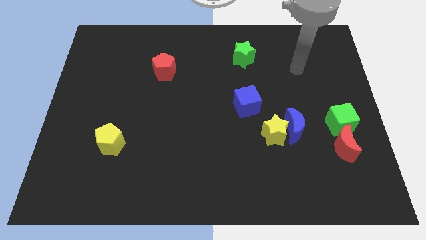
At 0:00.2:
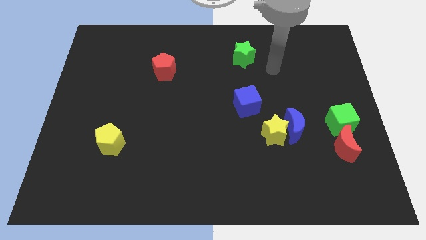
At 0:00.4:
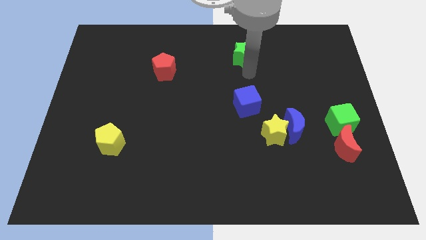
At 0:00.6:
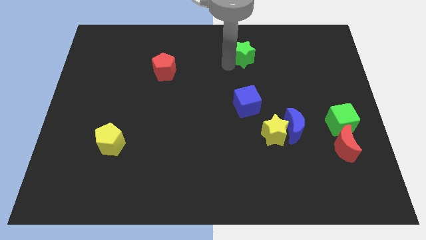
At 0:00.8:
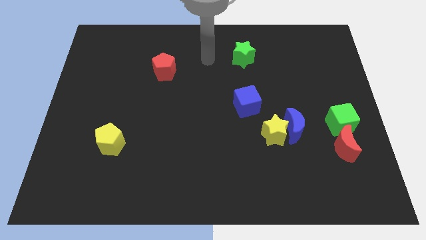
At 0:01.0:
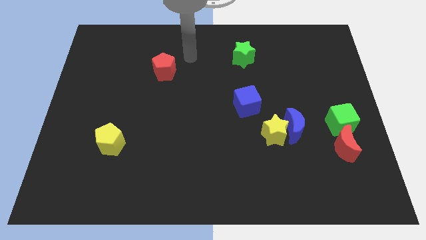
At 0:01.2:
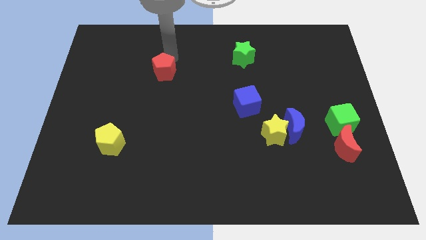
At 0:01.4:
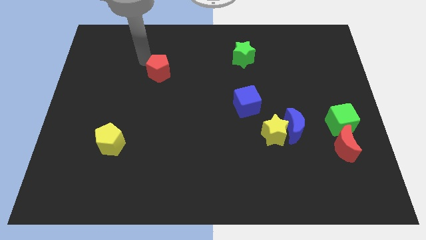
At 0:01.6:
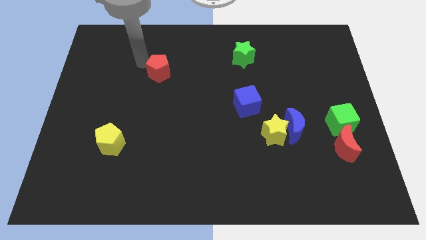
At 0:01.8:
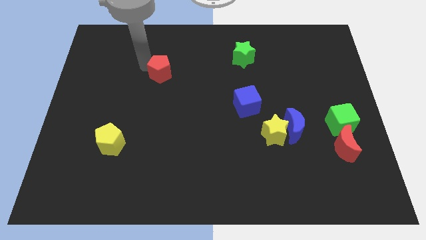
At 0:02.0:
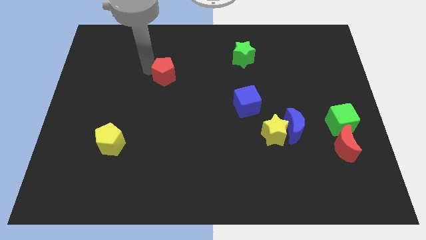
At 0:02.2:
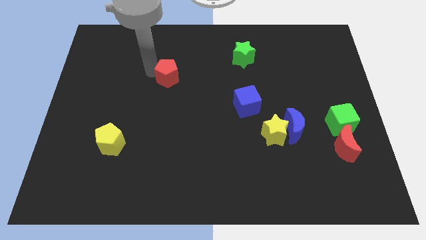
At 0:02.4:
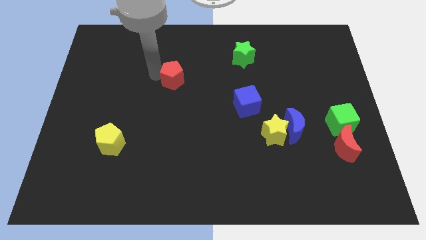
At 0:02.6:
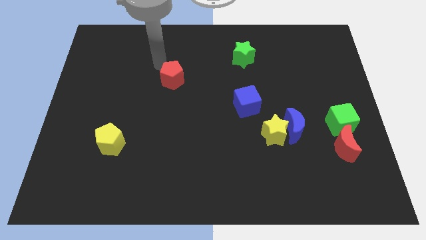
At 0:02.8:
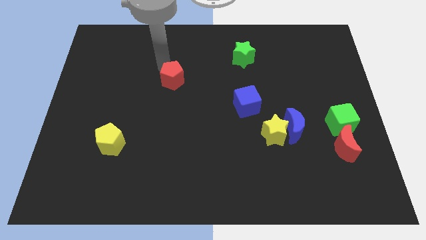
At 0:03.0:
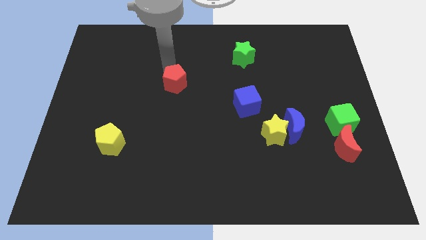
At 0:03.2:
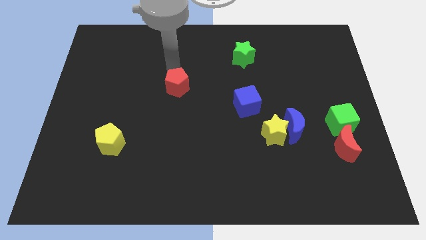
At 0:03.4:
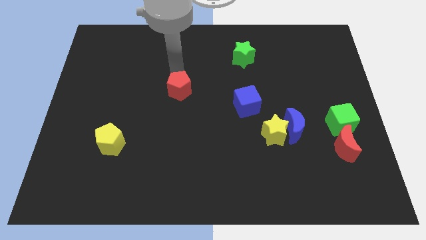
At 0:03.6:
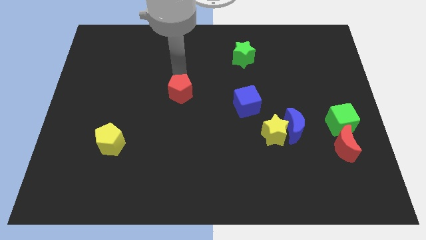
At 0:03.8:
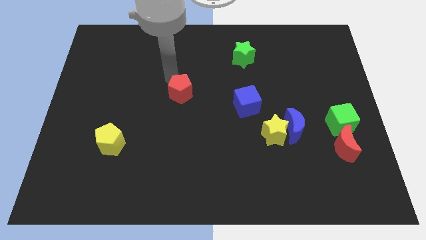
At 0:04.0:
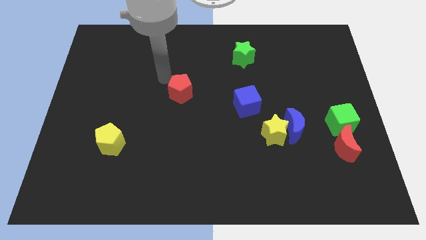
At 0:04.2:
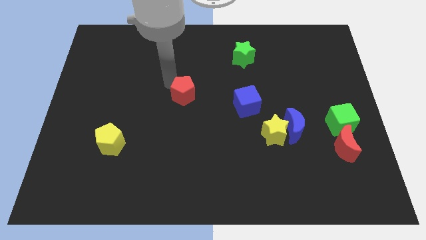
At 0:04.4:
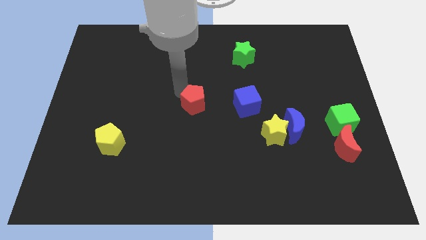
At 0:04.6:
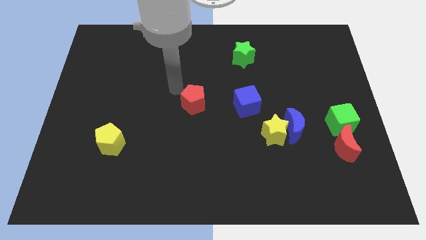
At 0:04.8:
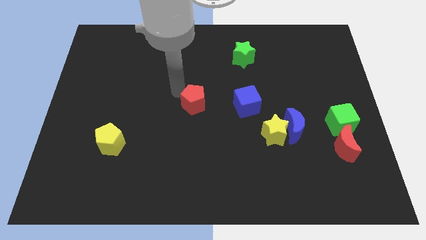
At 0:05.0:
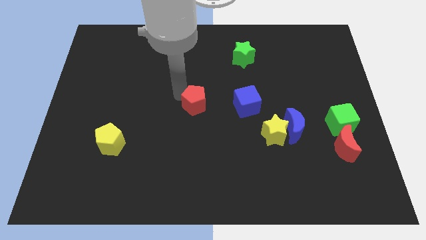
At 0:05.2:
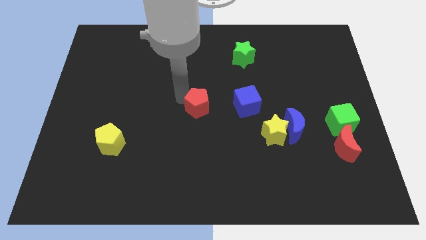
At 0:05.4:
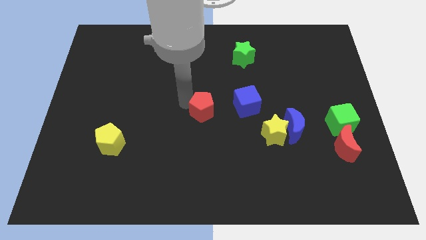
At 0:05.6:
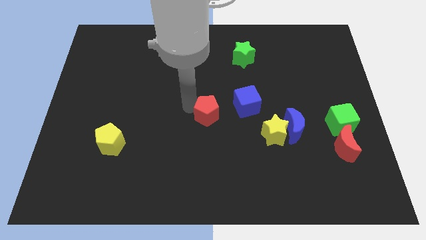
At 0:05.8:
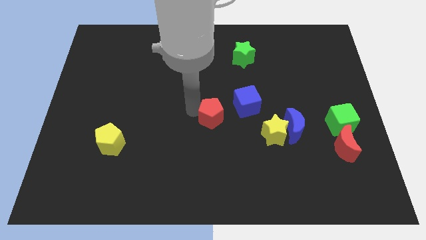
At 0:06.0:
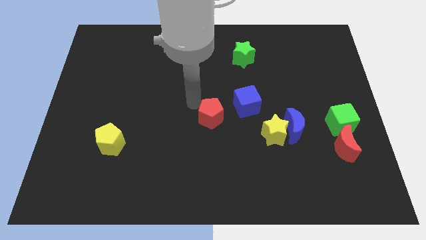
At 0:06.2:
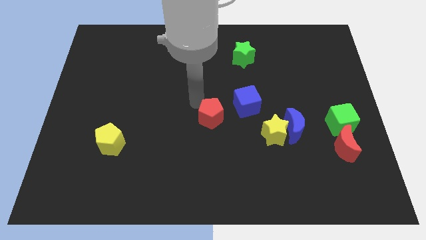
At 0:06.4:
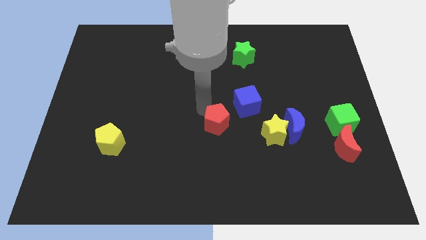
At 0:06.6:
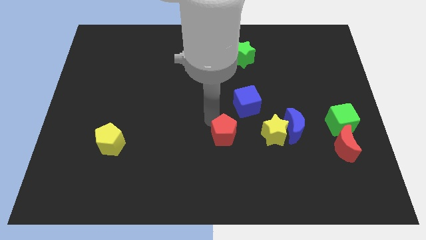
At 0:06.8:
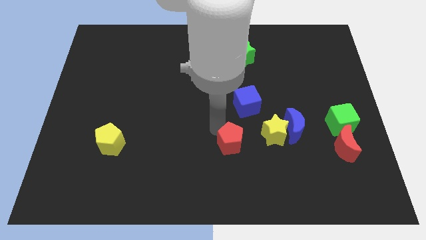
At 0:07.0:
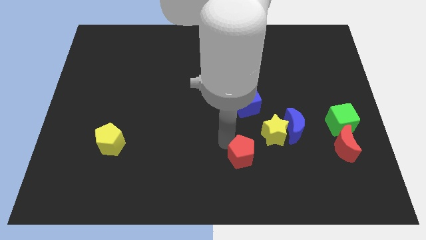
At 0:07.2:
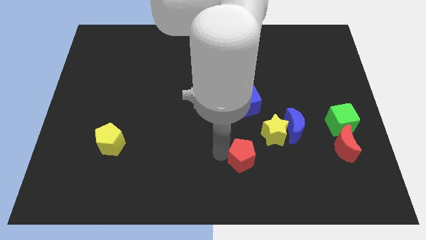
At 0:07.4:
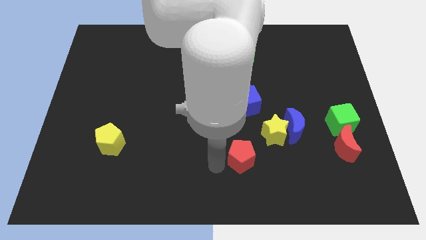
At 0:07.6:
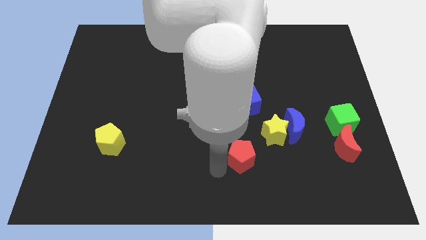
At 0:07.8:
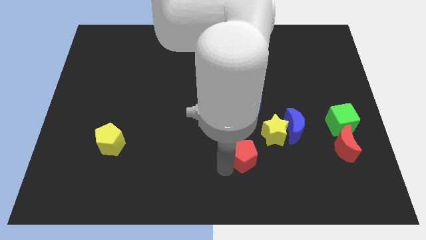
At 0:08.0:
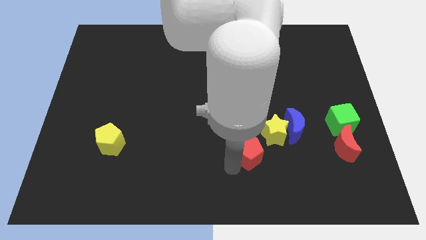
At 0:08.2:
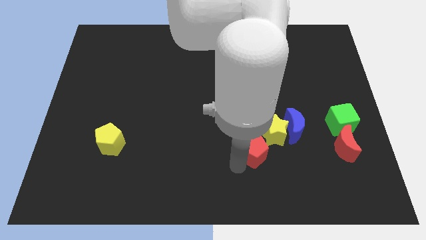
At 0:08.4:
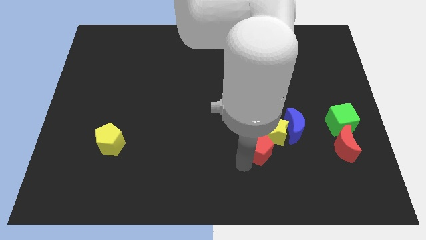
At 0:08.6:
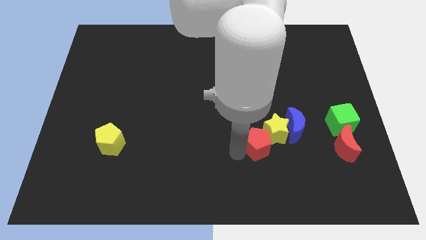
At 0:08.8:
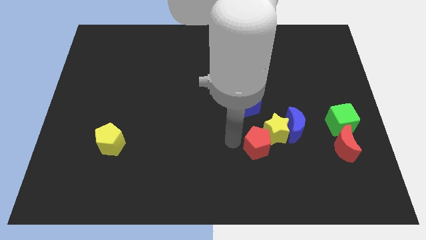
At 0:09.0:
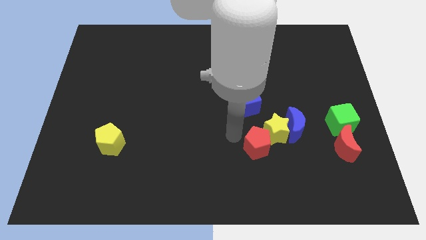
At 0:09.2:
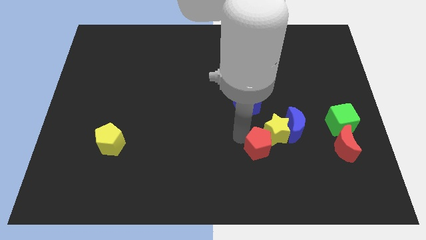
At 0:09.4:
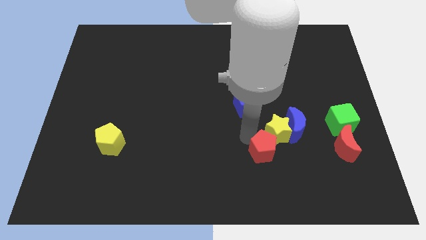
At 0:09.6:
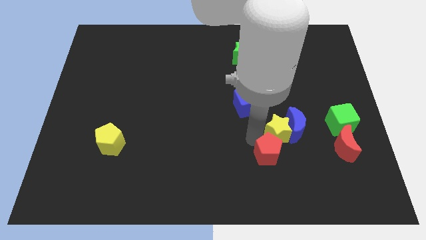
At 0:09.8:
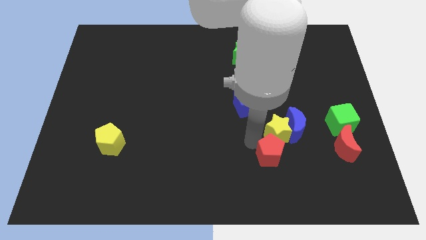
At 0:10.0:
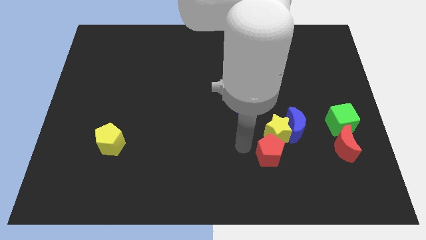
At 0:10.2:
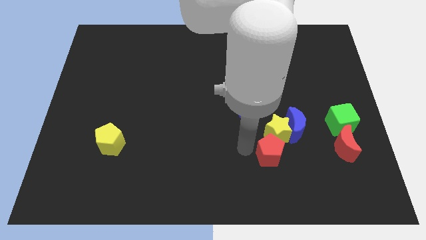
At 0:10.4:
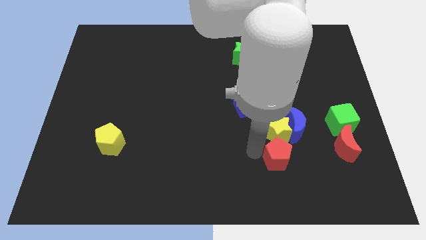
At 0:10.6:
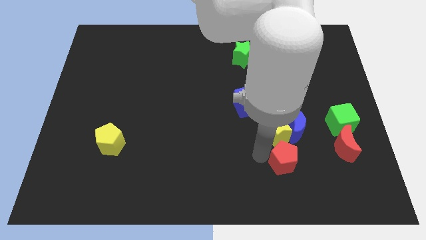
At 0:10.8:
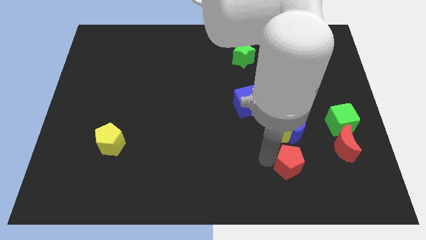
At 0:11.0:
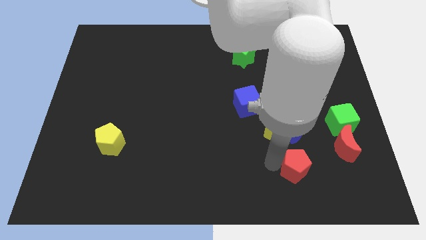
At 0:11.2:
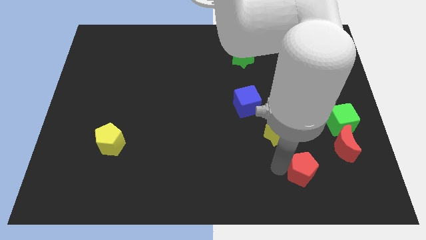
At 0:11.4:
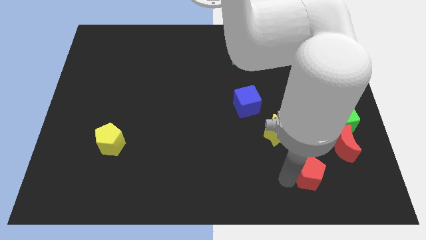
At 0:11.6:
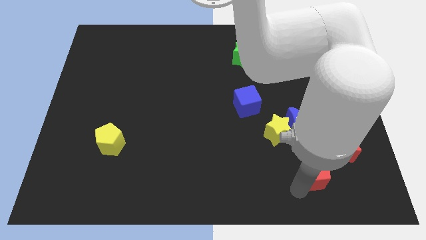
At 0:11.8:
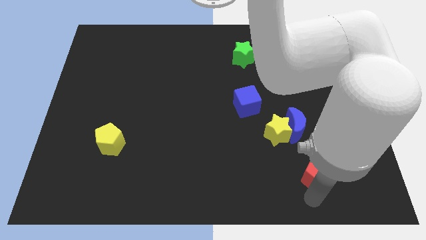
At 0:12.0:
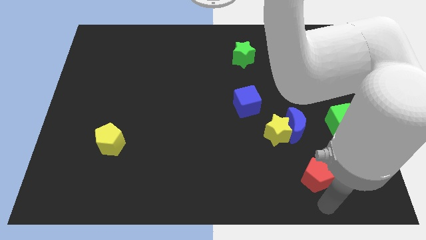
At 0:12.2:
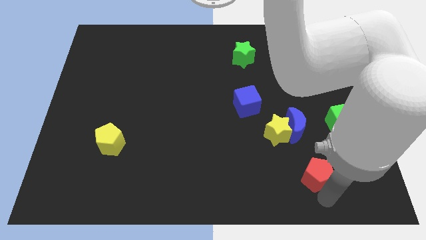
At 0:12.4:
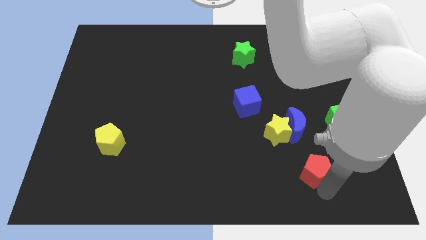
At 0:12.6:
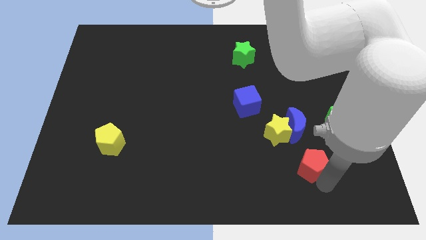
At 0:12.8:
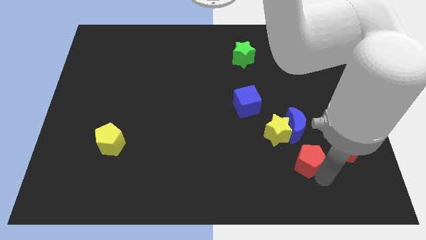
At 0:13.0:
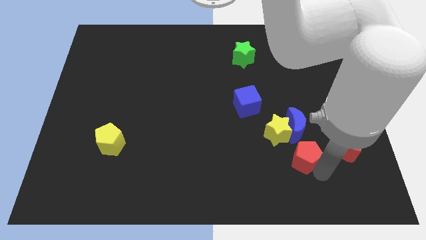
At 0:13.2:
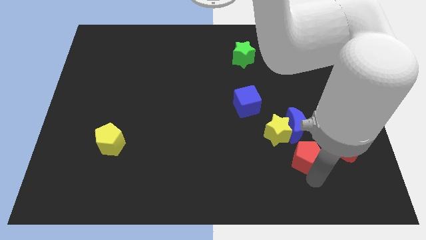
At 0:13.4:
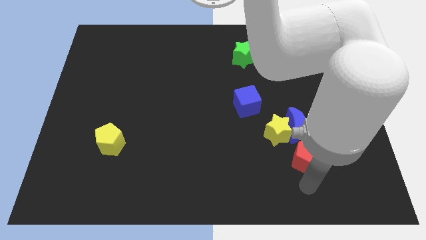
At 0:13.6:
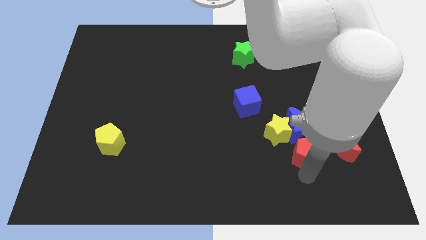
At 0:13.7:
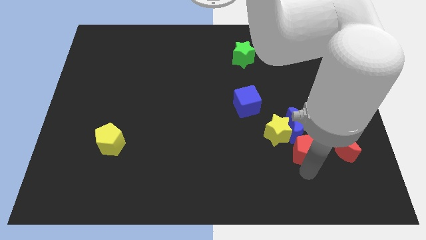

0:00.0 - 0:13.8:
push the red pentagon to the right side of the yellow star

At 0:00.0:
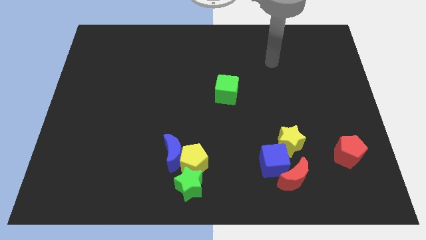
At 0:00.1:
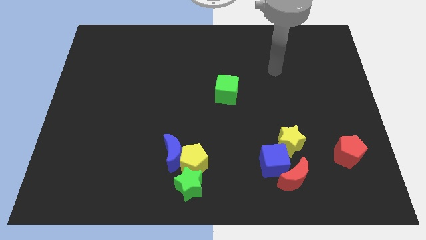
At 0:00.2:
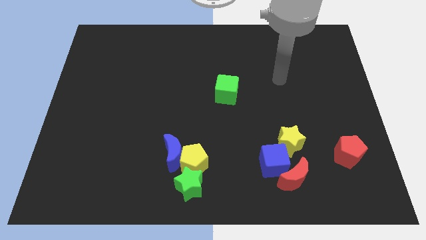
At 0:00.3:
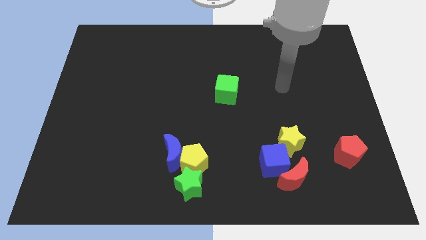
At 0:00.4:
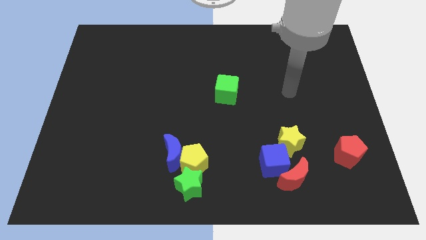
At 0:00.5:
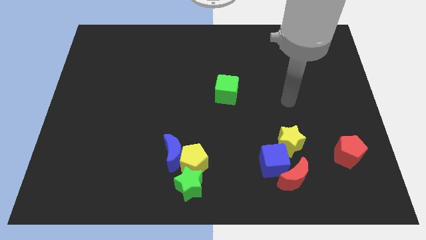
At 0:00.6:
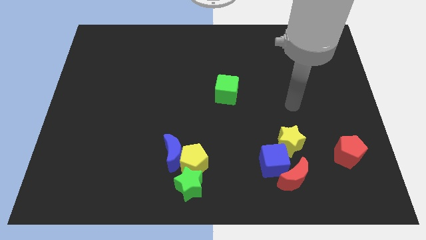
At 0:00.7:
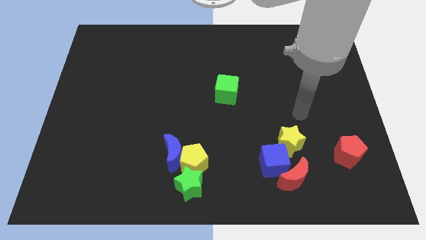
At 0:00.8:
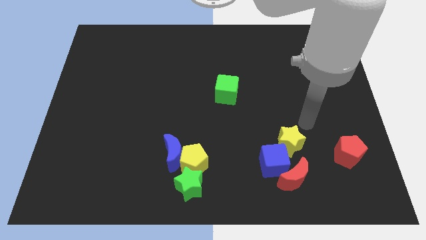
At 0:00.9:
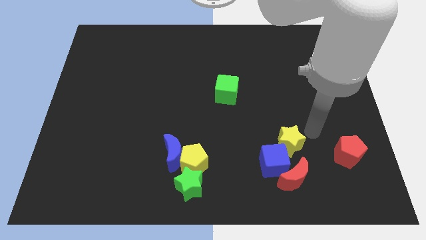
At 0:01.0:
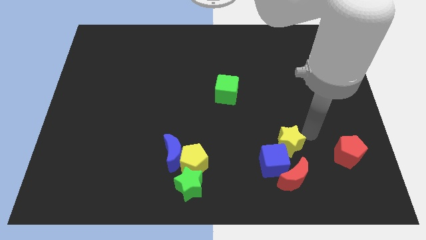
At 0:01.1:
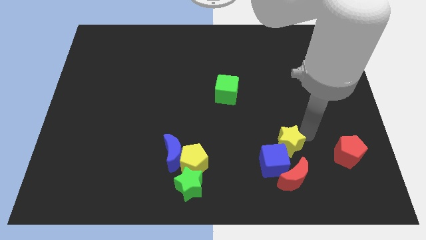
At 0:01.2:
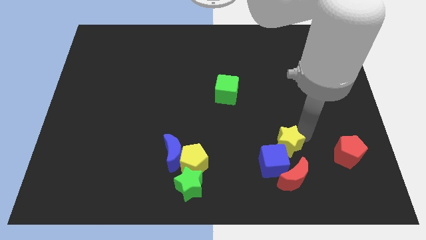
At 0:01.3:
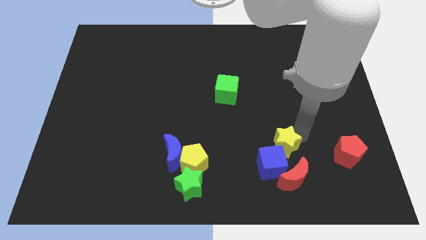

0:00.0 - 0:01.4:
push the yellow star to the top left of the red moon
